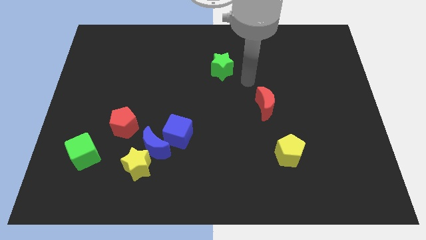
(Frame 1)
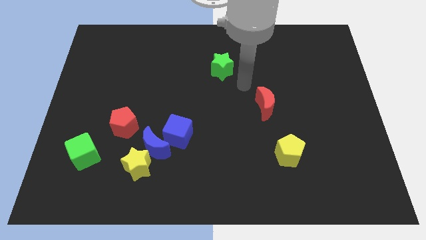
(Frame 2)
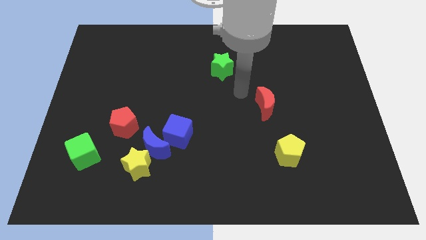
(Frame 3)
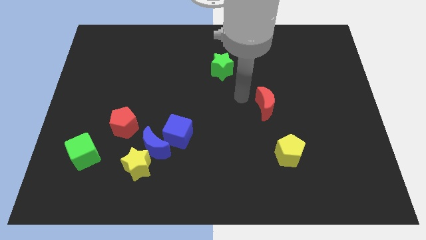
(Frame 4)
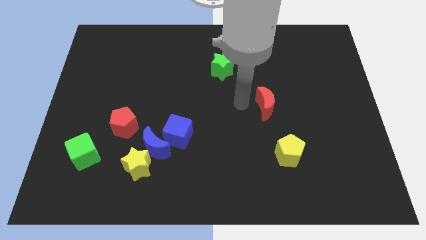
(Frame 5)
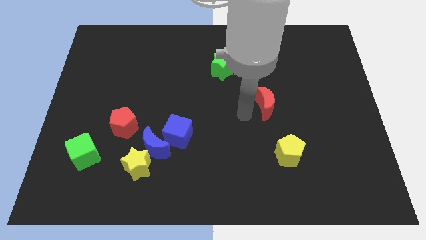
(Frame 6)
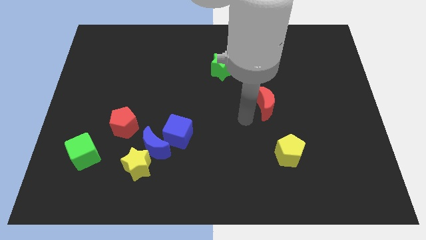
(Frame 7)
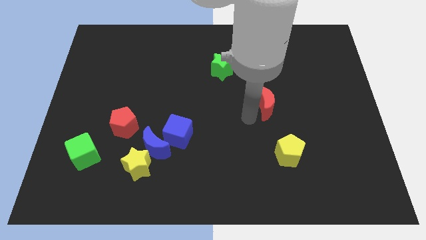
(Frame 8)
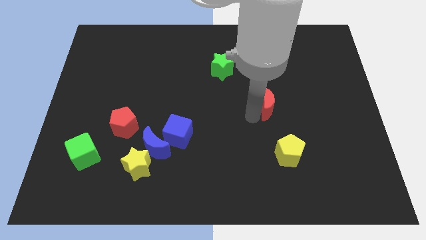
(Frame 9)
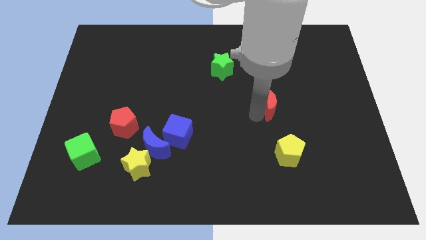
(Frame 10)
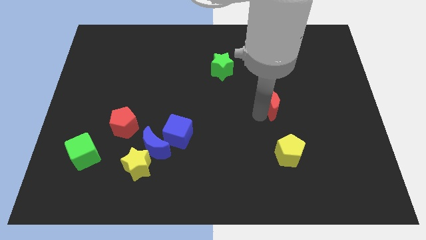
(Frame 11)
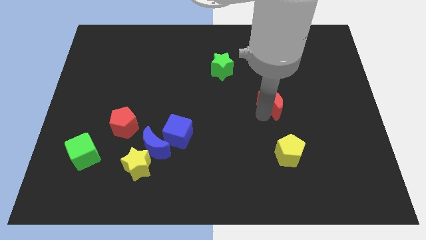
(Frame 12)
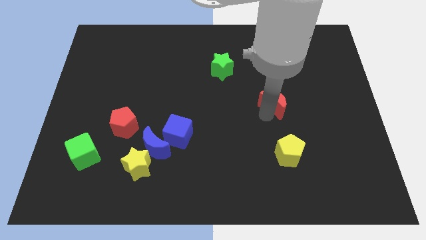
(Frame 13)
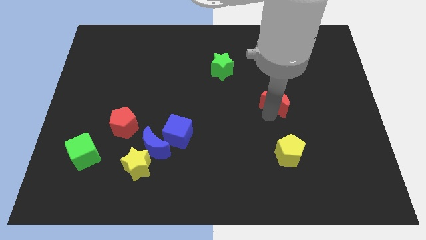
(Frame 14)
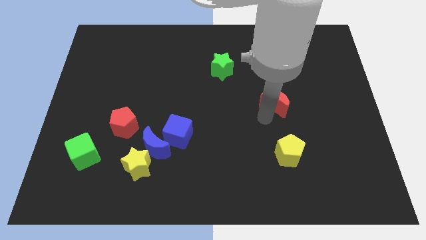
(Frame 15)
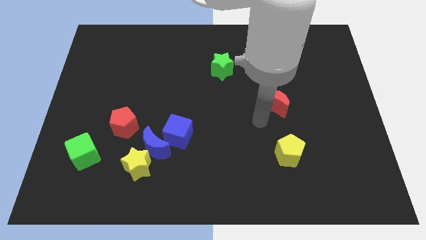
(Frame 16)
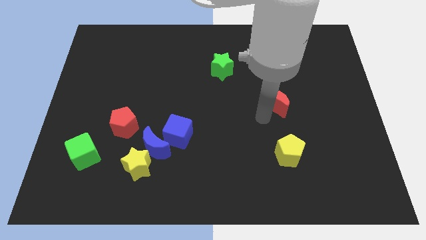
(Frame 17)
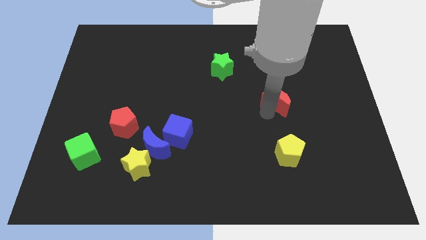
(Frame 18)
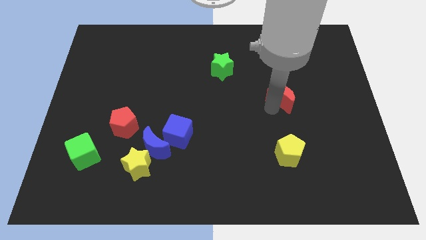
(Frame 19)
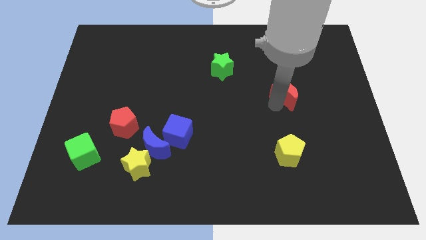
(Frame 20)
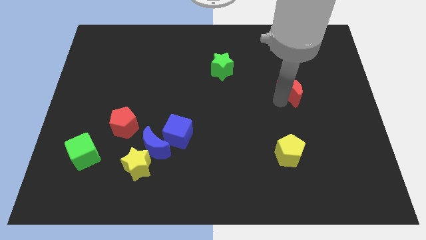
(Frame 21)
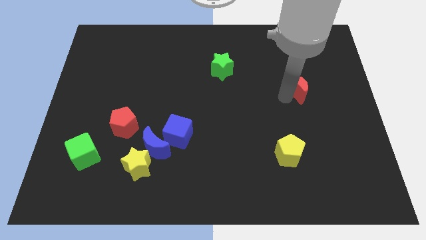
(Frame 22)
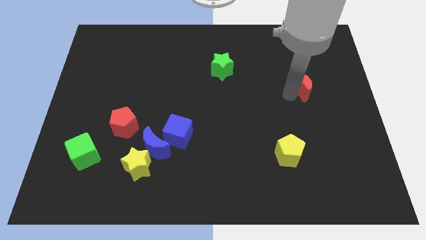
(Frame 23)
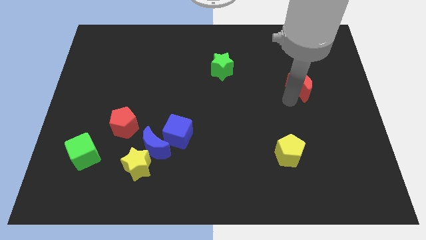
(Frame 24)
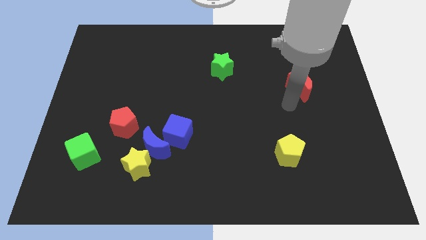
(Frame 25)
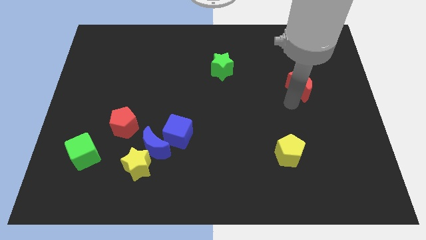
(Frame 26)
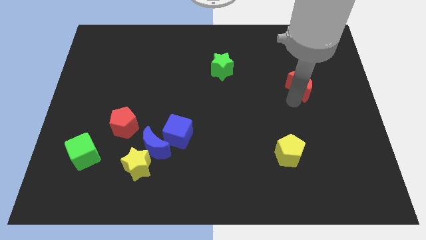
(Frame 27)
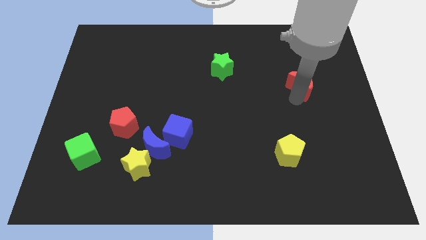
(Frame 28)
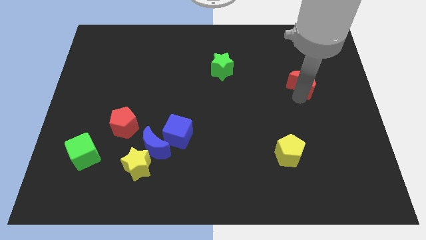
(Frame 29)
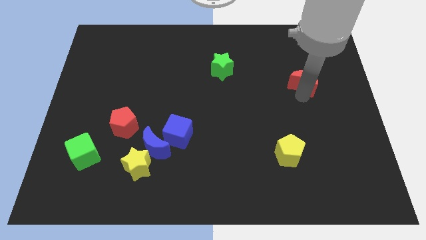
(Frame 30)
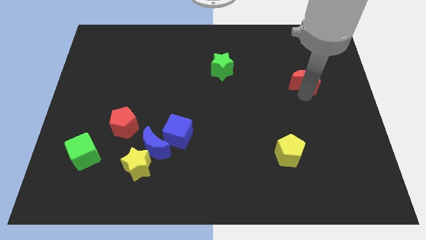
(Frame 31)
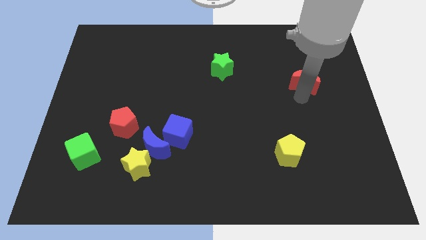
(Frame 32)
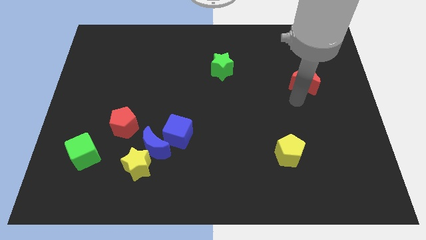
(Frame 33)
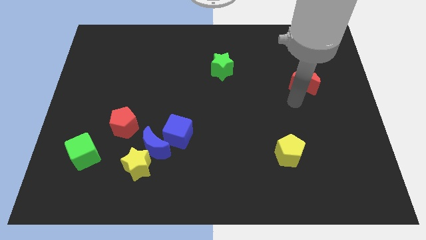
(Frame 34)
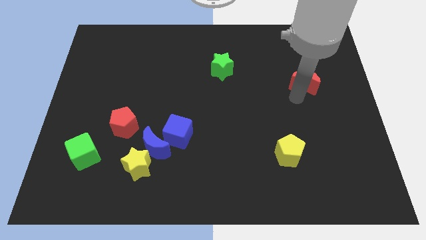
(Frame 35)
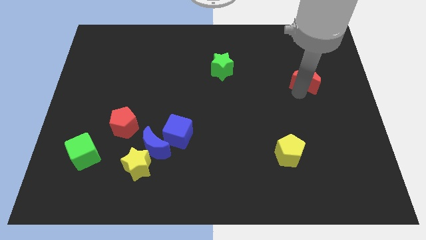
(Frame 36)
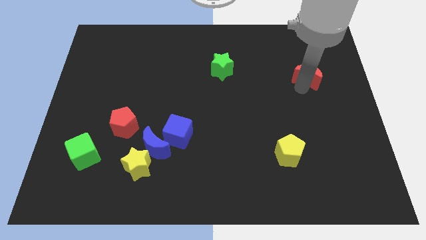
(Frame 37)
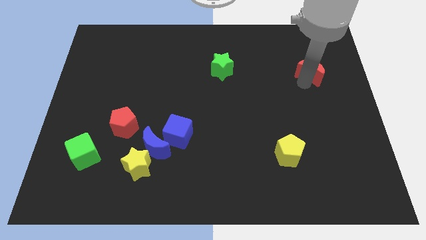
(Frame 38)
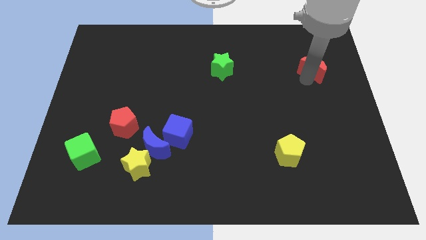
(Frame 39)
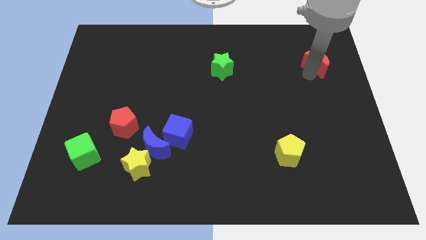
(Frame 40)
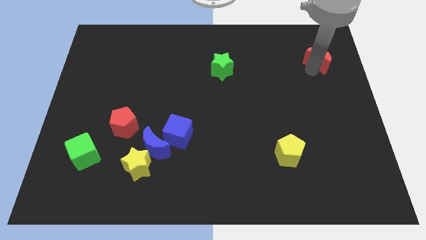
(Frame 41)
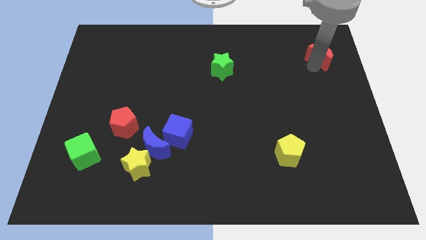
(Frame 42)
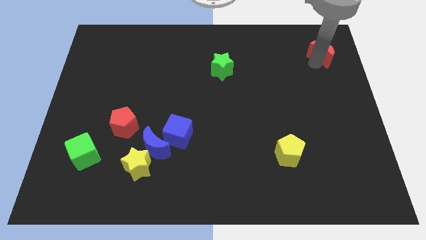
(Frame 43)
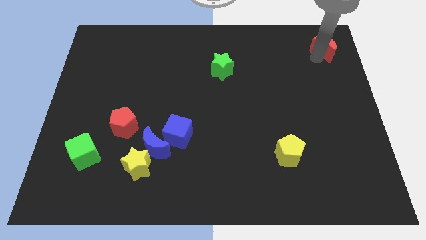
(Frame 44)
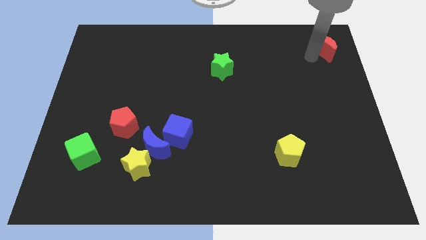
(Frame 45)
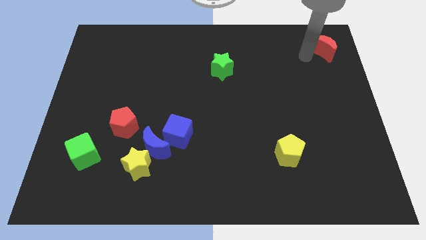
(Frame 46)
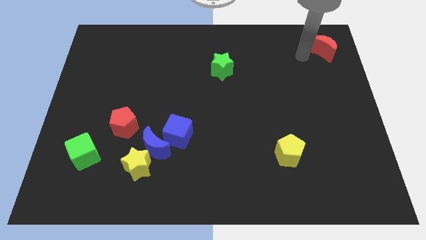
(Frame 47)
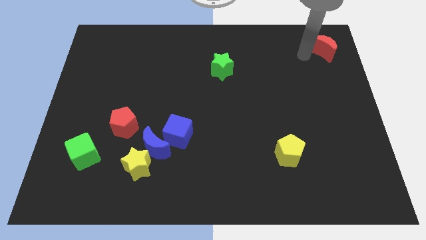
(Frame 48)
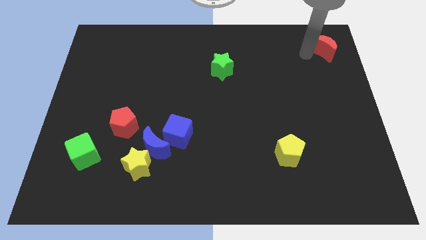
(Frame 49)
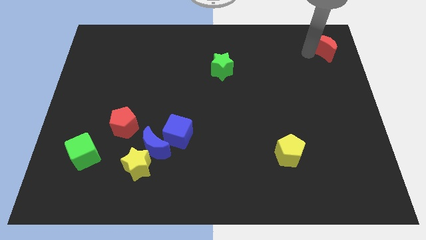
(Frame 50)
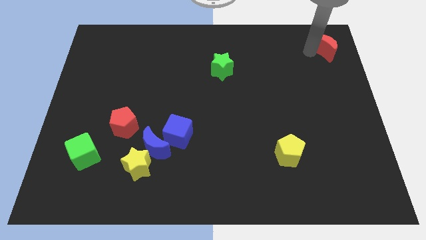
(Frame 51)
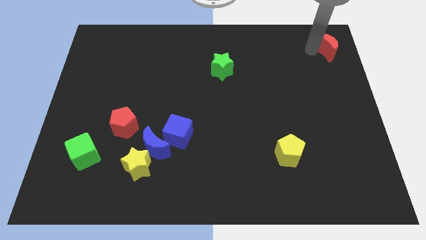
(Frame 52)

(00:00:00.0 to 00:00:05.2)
move the red moon to the top right of the board

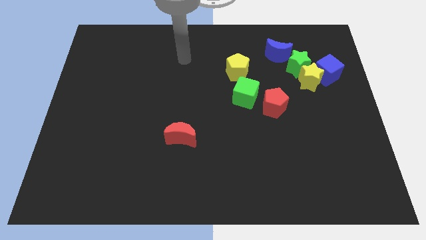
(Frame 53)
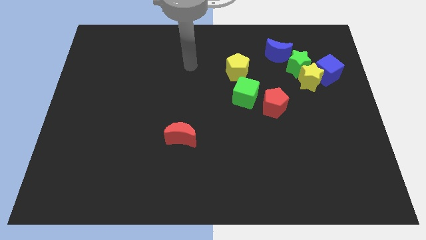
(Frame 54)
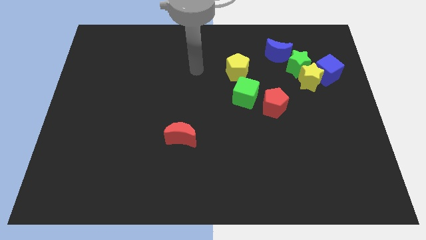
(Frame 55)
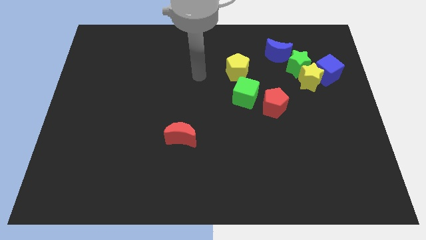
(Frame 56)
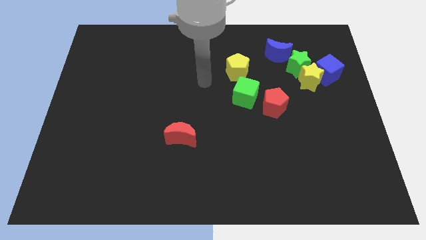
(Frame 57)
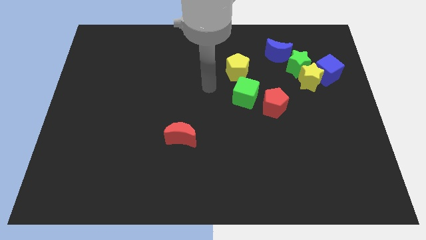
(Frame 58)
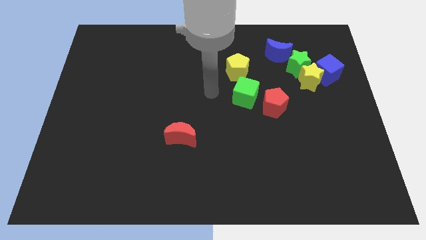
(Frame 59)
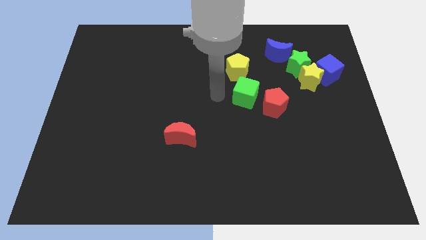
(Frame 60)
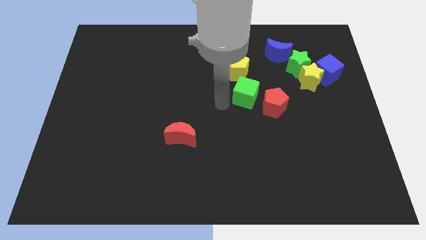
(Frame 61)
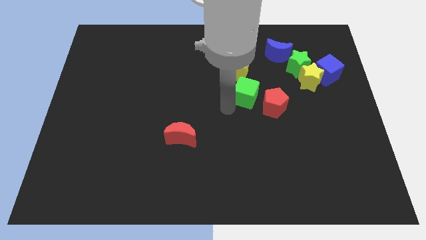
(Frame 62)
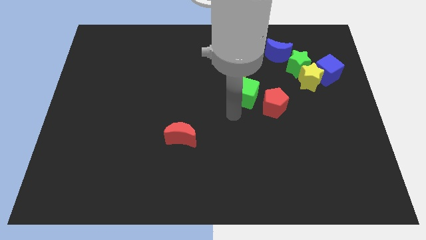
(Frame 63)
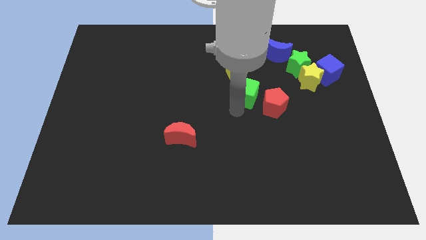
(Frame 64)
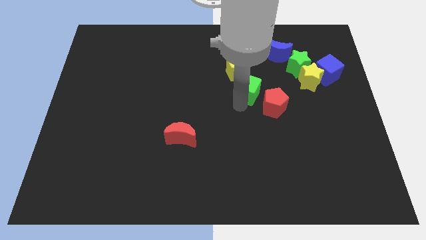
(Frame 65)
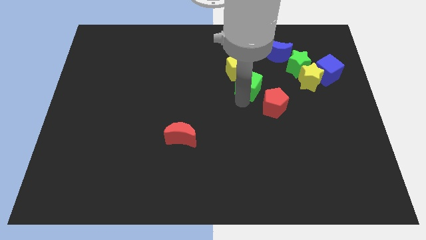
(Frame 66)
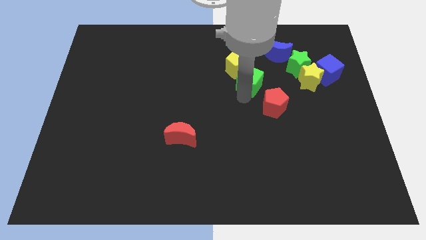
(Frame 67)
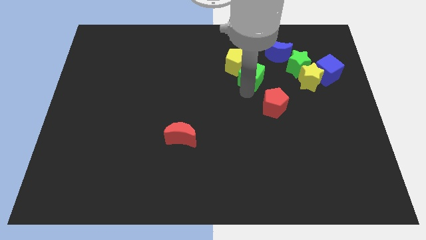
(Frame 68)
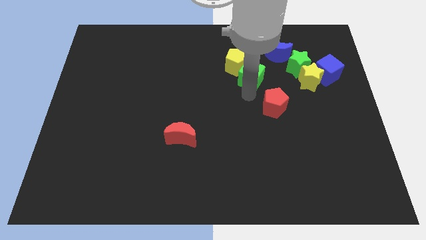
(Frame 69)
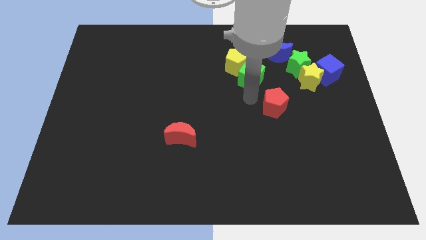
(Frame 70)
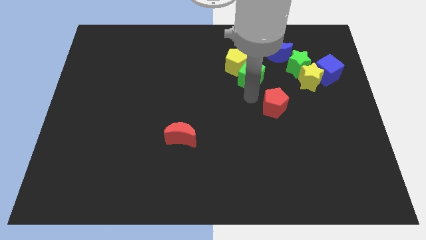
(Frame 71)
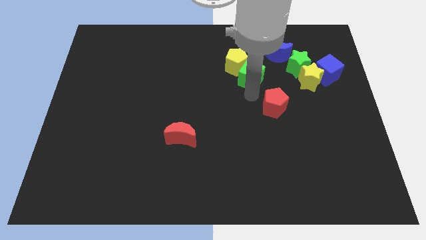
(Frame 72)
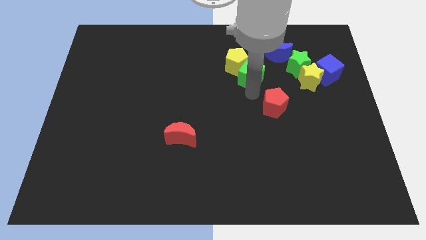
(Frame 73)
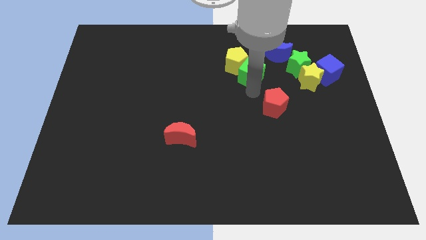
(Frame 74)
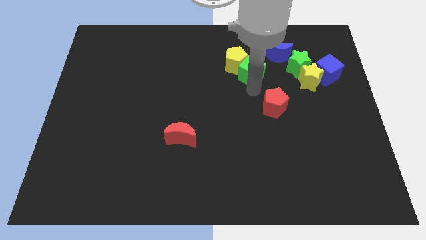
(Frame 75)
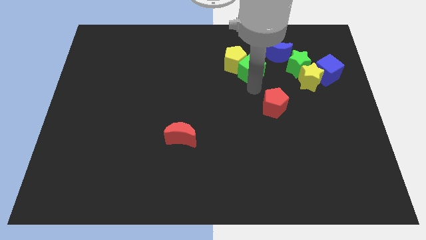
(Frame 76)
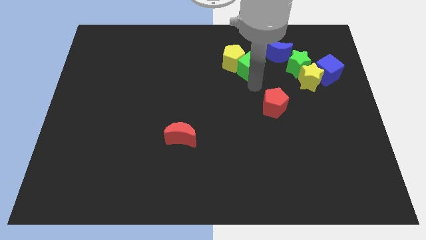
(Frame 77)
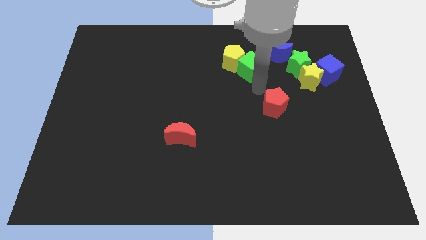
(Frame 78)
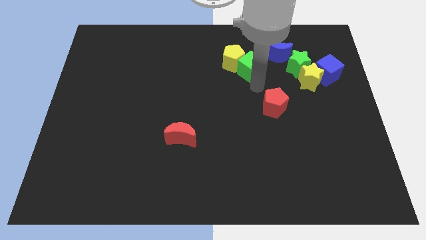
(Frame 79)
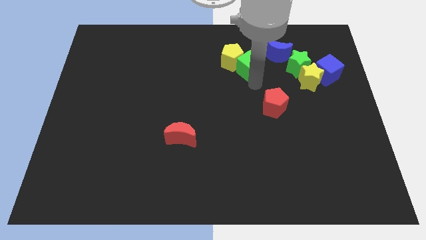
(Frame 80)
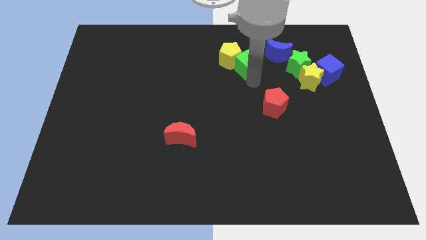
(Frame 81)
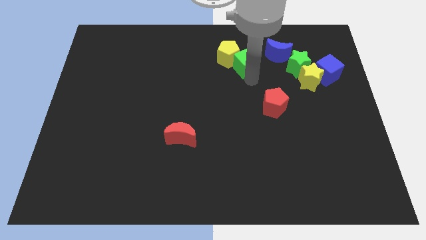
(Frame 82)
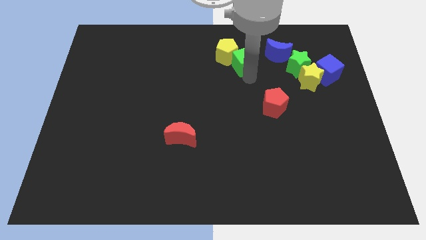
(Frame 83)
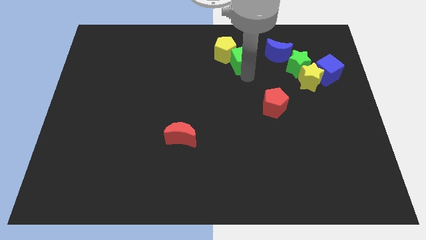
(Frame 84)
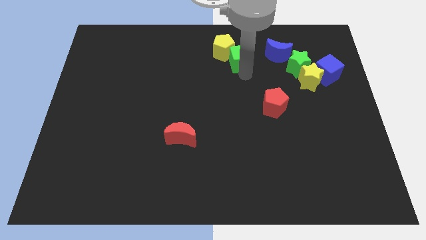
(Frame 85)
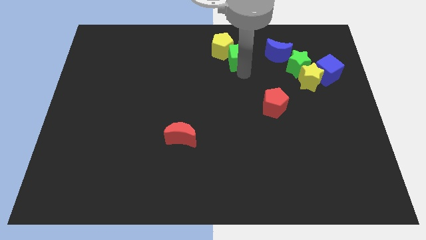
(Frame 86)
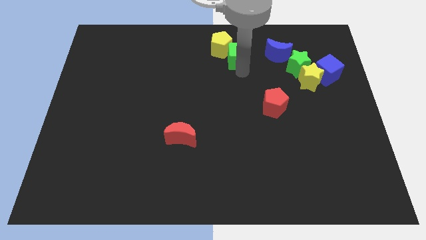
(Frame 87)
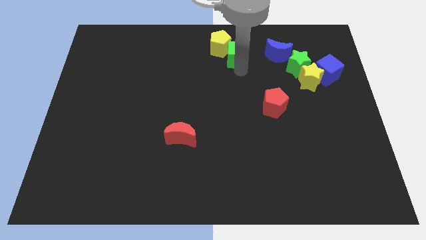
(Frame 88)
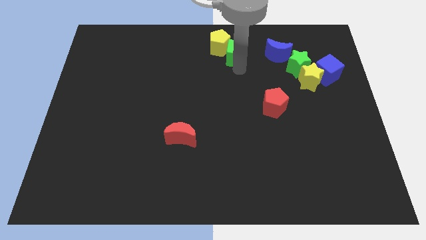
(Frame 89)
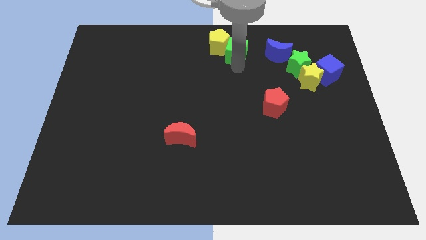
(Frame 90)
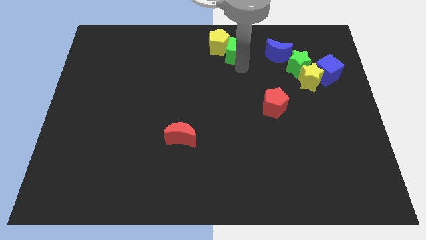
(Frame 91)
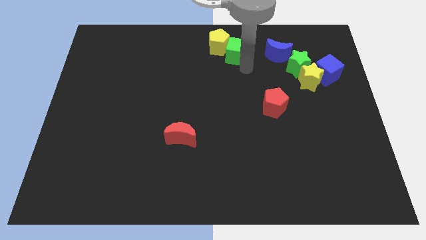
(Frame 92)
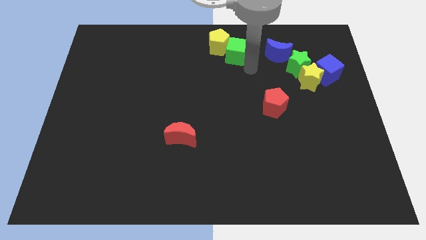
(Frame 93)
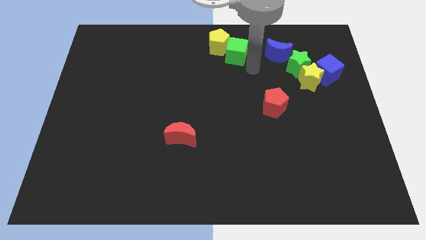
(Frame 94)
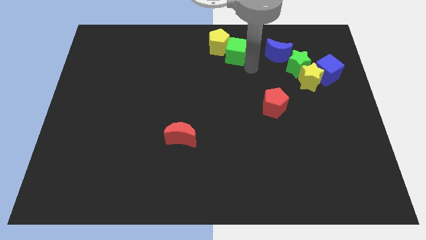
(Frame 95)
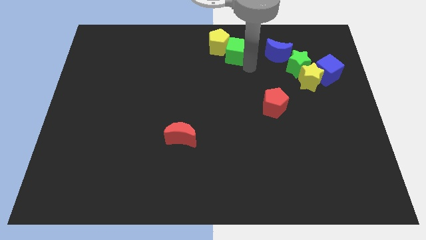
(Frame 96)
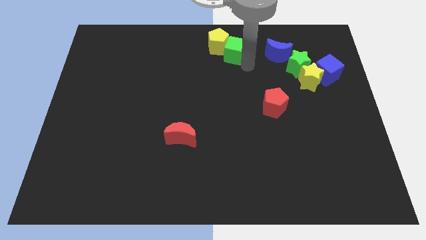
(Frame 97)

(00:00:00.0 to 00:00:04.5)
push the green cube to the top side
